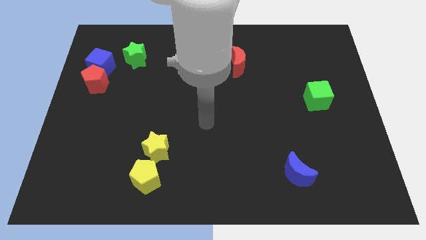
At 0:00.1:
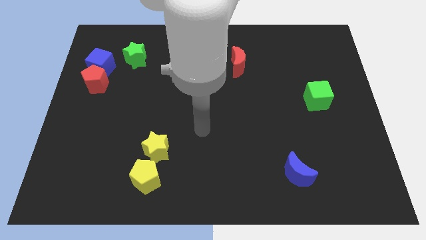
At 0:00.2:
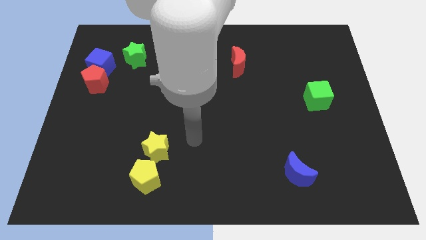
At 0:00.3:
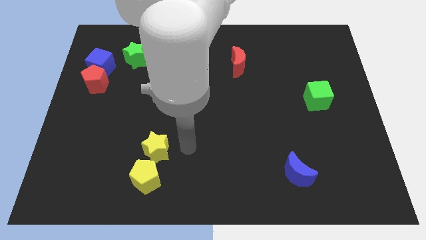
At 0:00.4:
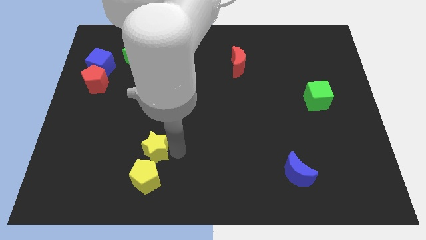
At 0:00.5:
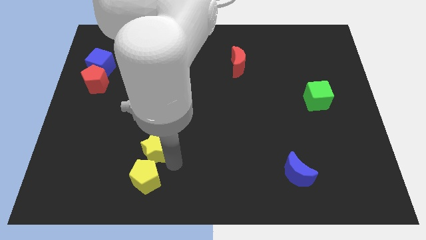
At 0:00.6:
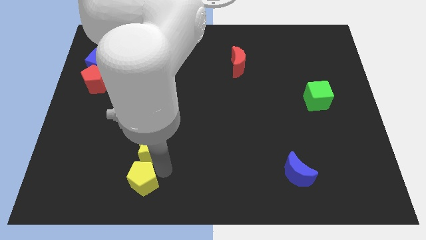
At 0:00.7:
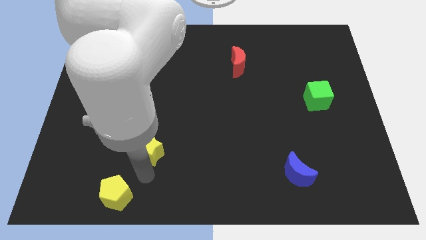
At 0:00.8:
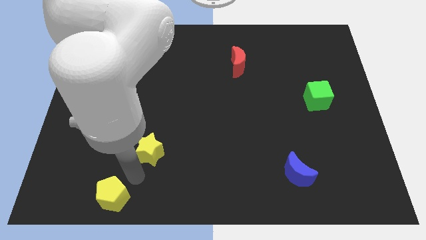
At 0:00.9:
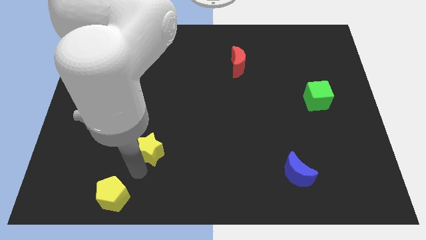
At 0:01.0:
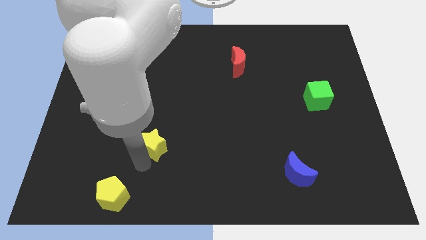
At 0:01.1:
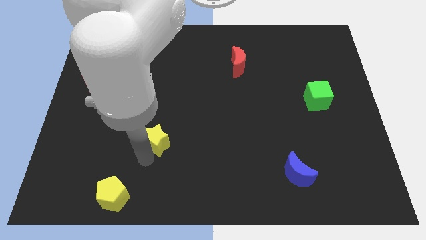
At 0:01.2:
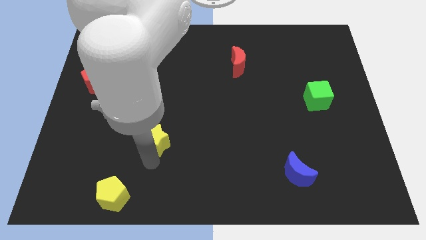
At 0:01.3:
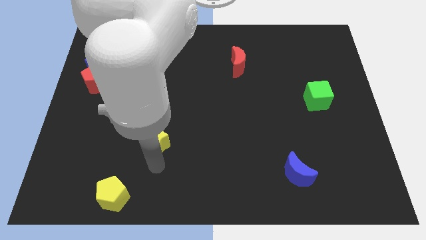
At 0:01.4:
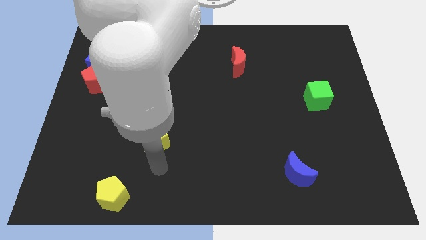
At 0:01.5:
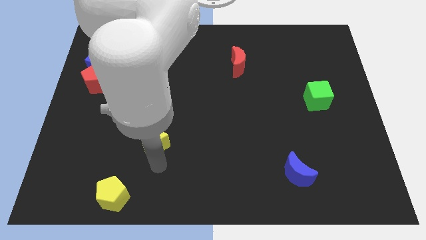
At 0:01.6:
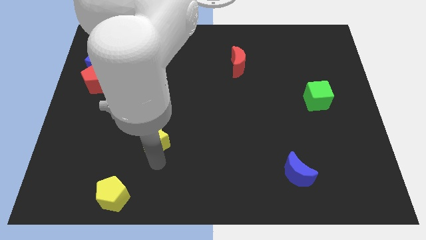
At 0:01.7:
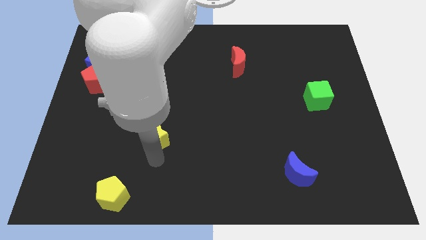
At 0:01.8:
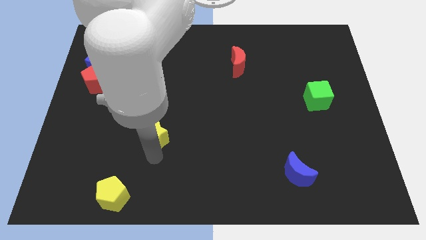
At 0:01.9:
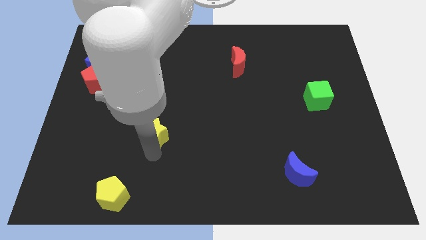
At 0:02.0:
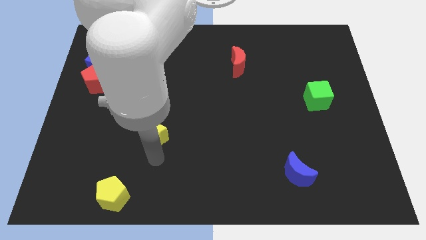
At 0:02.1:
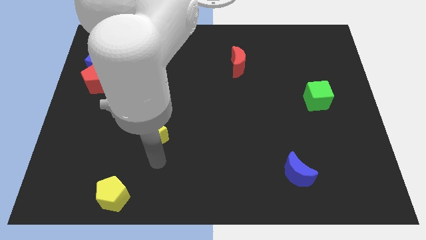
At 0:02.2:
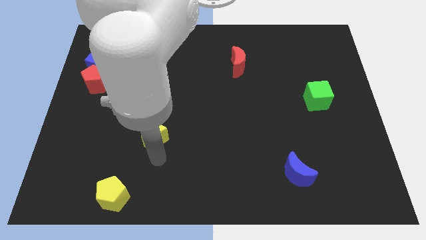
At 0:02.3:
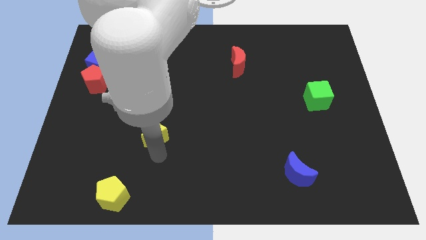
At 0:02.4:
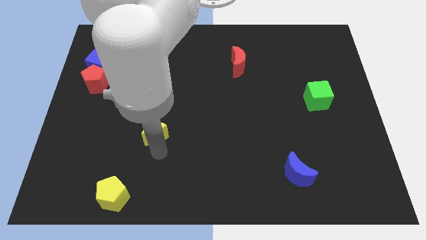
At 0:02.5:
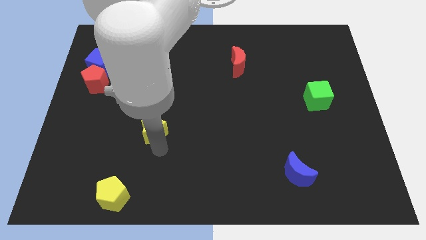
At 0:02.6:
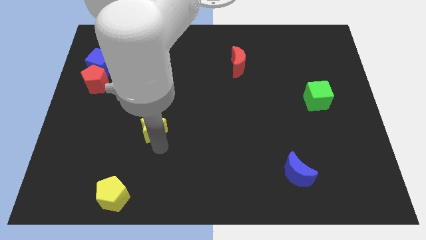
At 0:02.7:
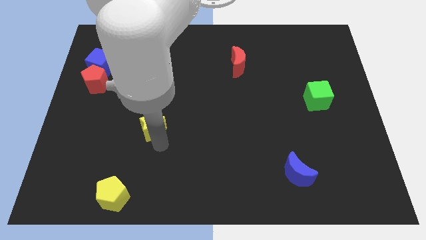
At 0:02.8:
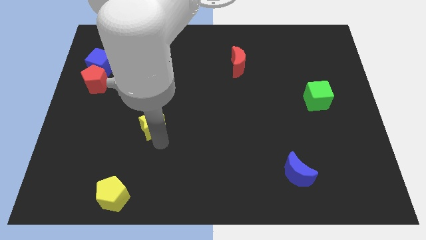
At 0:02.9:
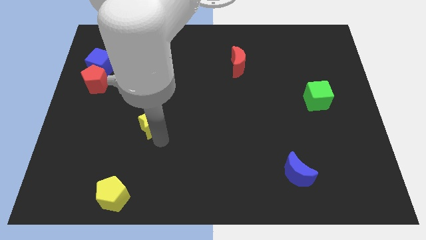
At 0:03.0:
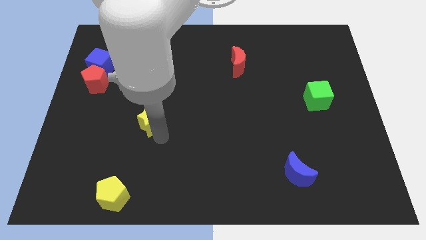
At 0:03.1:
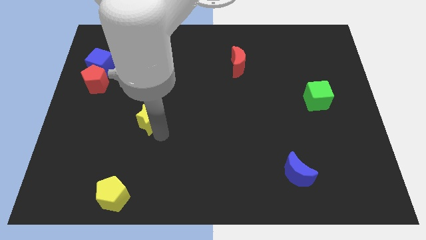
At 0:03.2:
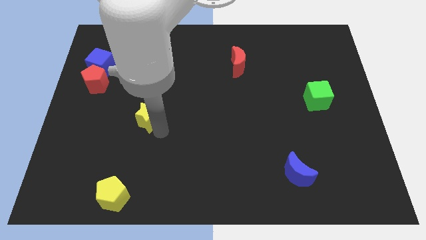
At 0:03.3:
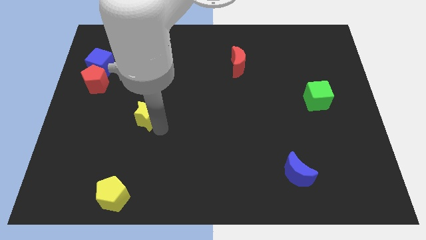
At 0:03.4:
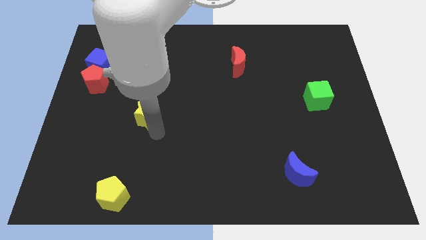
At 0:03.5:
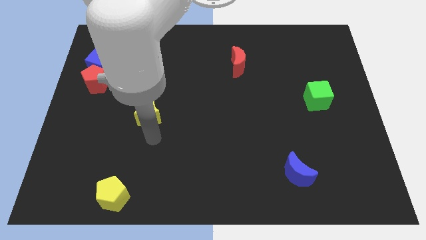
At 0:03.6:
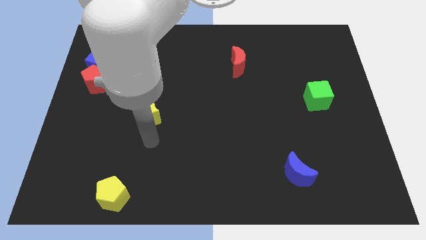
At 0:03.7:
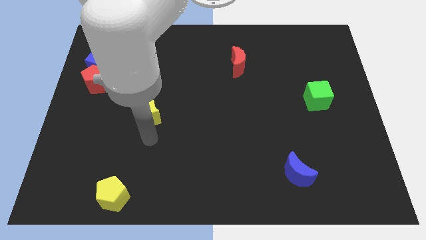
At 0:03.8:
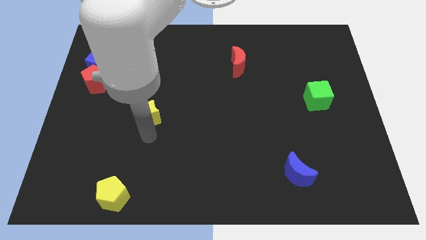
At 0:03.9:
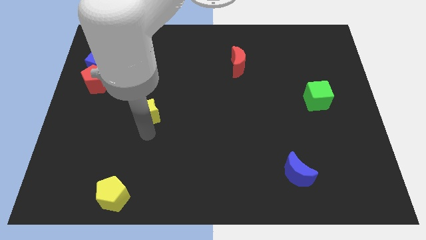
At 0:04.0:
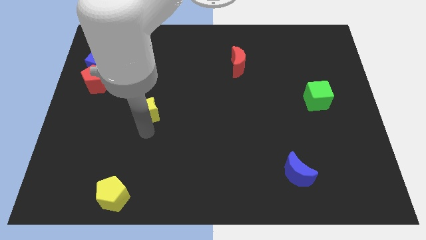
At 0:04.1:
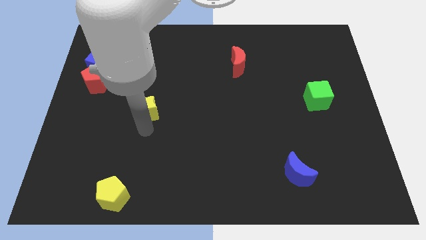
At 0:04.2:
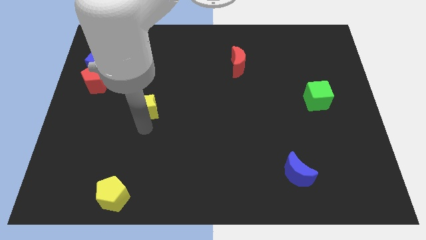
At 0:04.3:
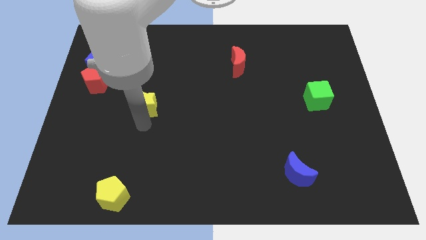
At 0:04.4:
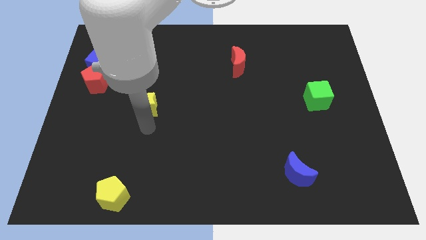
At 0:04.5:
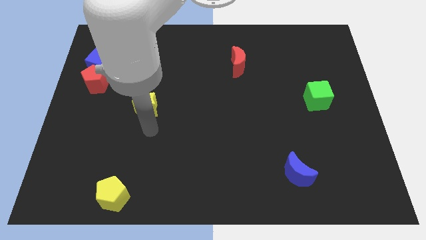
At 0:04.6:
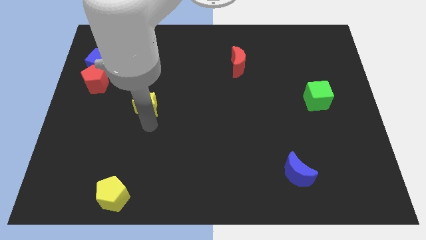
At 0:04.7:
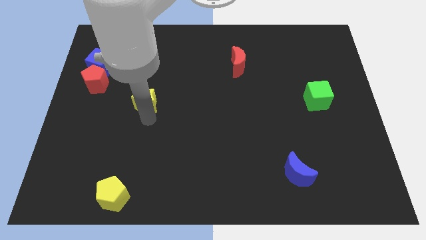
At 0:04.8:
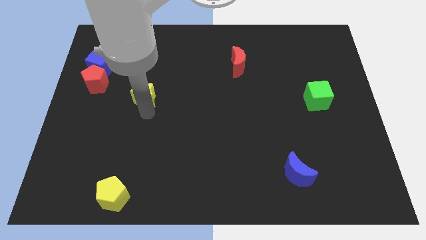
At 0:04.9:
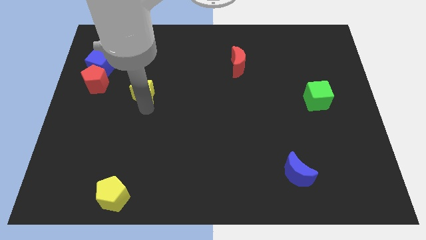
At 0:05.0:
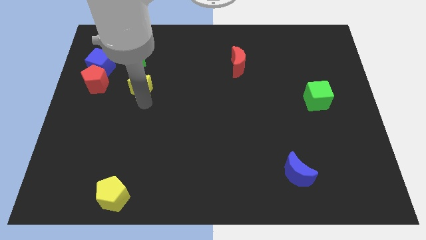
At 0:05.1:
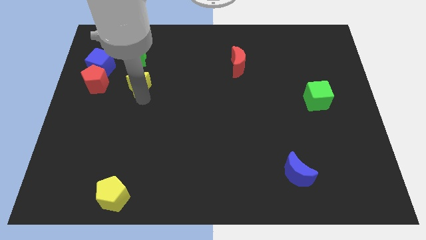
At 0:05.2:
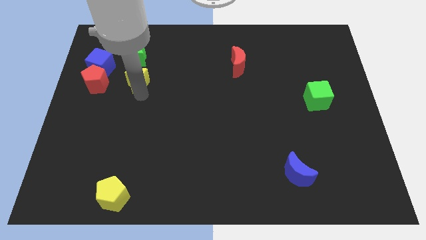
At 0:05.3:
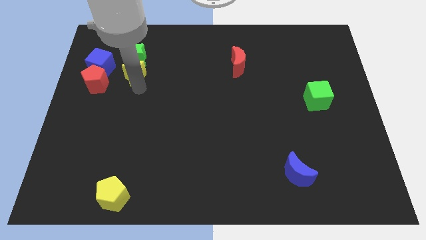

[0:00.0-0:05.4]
slide the yellow star to the green star

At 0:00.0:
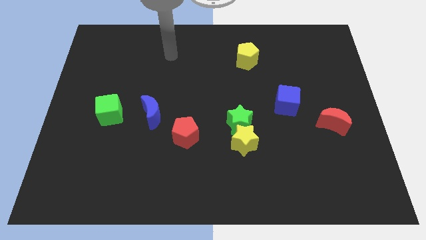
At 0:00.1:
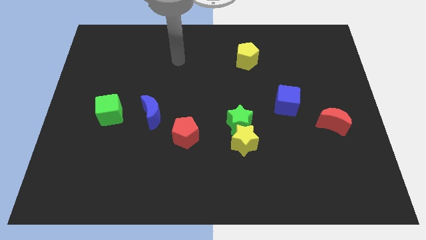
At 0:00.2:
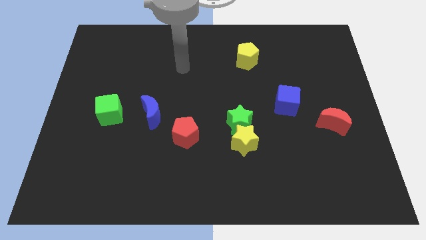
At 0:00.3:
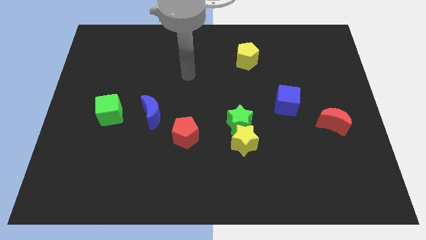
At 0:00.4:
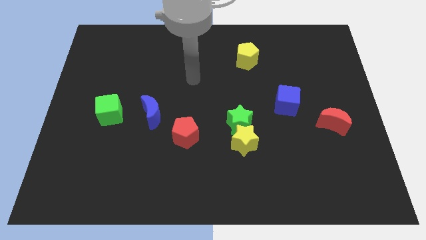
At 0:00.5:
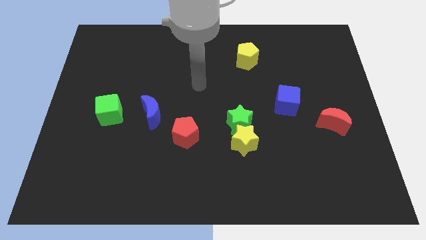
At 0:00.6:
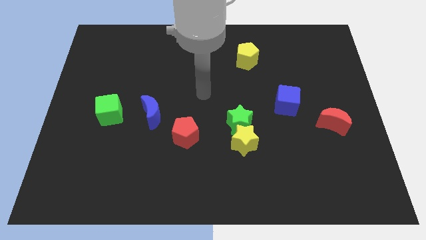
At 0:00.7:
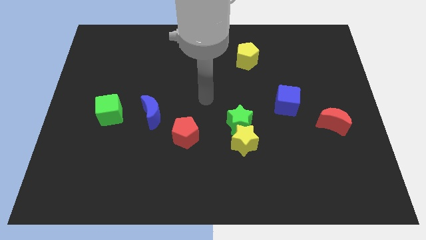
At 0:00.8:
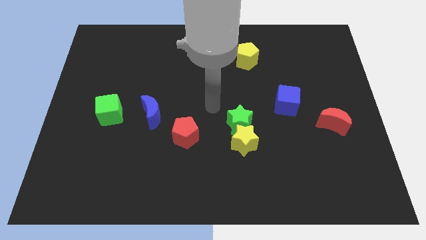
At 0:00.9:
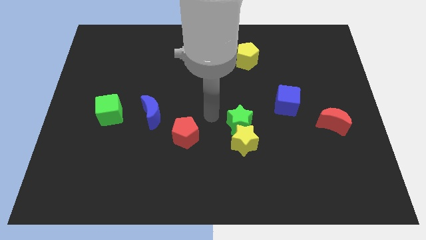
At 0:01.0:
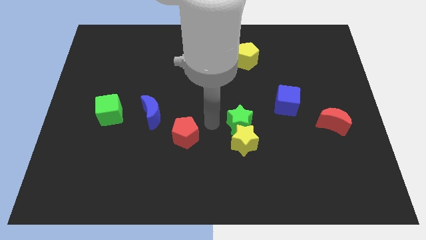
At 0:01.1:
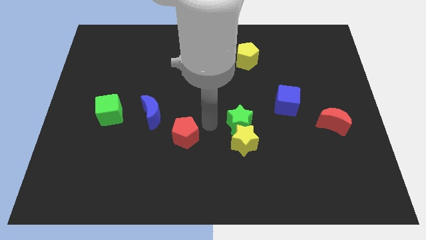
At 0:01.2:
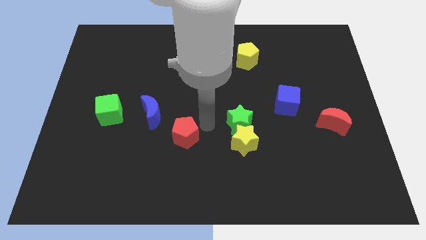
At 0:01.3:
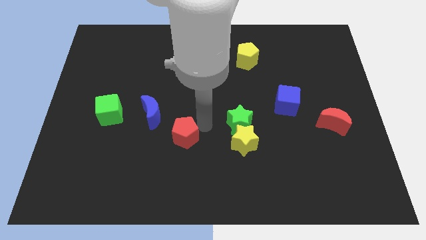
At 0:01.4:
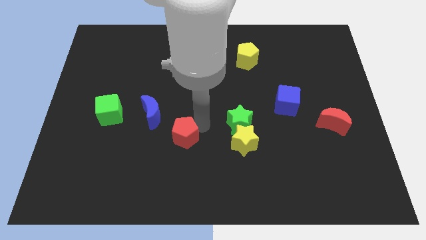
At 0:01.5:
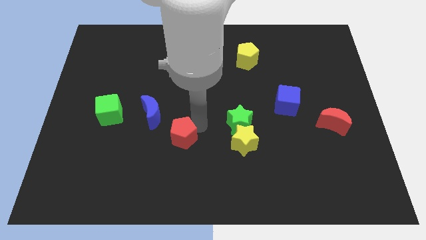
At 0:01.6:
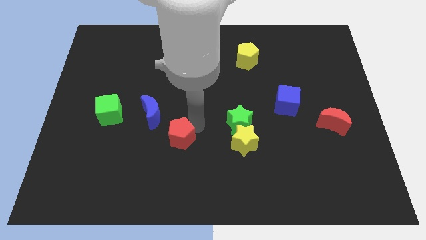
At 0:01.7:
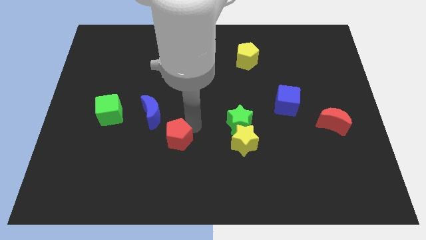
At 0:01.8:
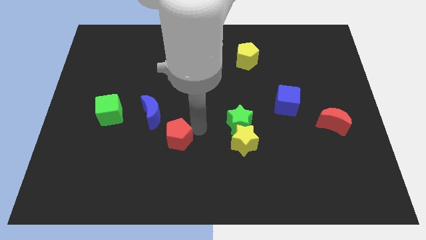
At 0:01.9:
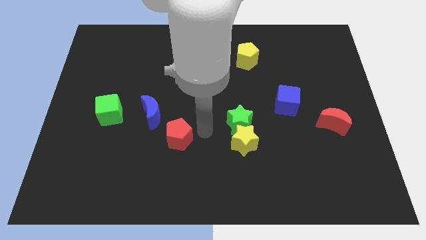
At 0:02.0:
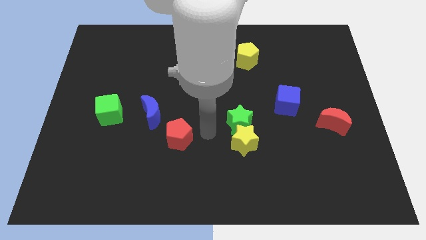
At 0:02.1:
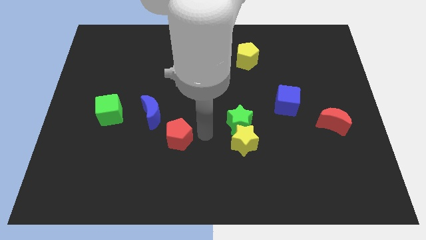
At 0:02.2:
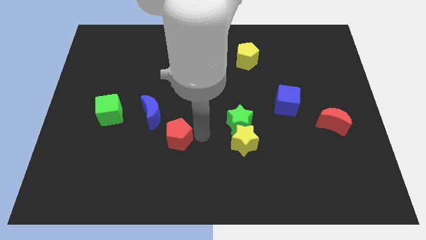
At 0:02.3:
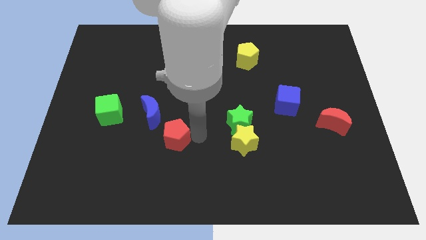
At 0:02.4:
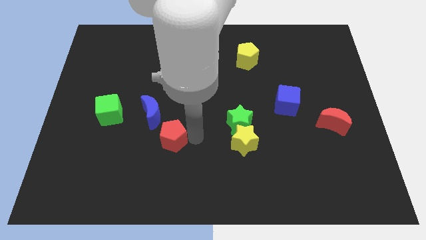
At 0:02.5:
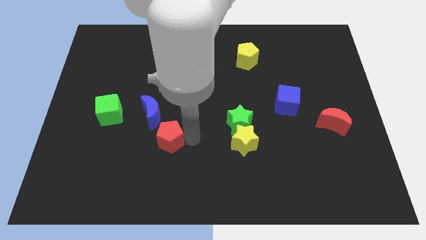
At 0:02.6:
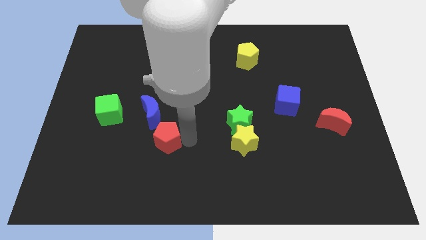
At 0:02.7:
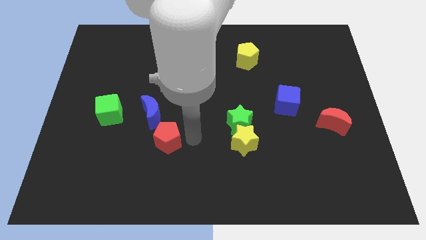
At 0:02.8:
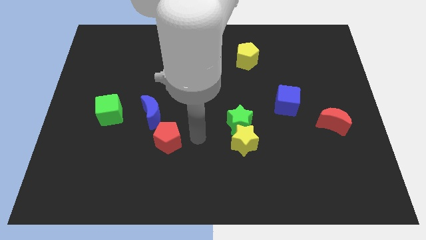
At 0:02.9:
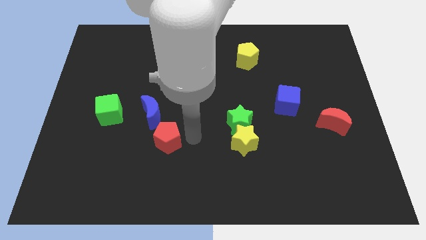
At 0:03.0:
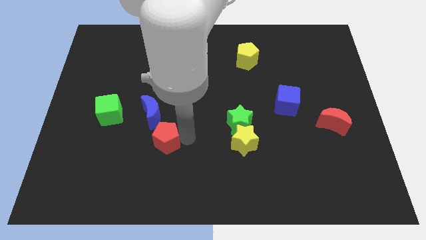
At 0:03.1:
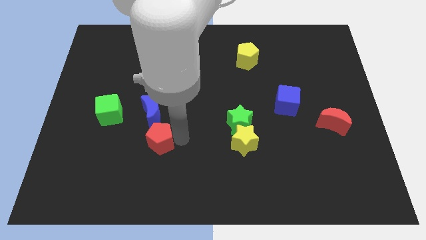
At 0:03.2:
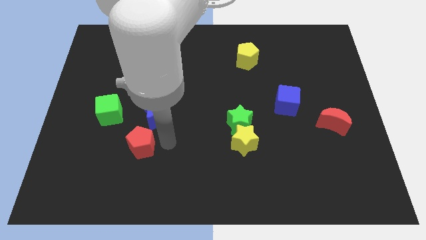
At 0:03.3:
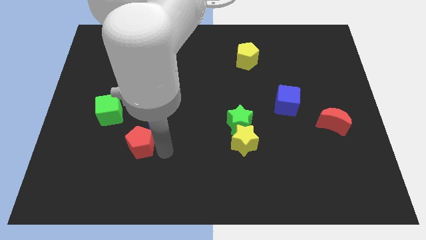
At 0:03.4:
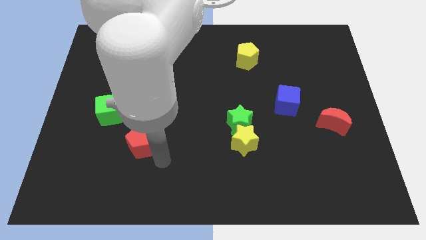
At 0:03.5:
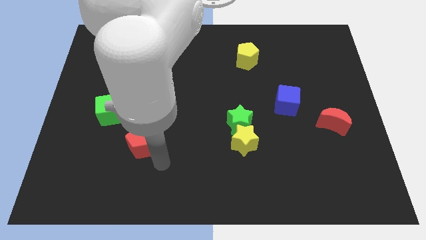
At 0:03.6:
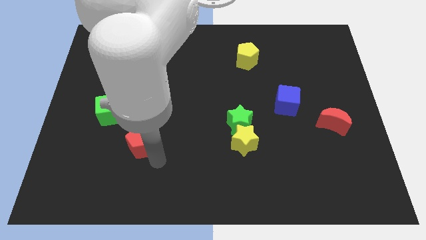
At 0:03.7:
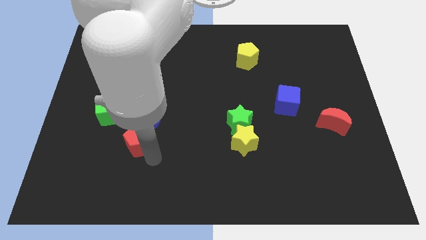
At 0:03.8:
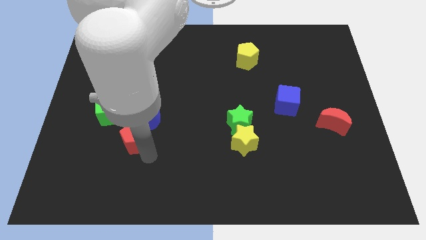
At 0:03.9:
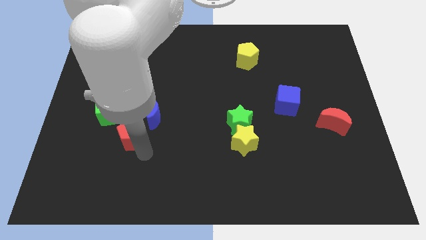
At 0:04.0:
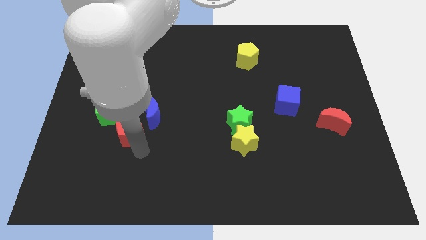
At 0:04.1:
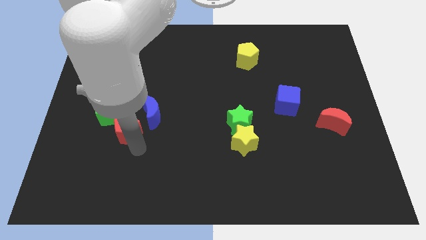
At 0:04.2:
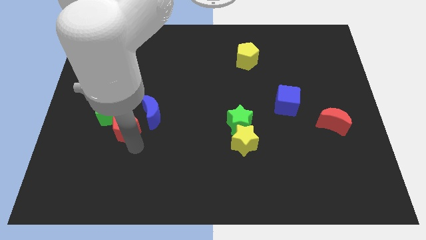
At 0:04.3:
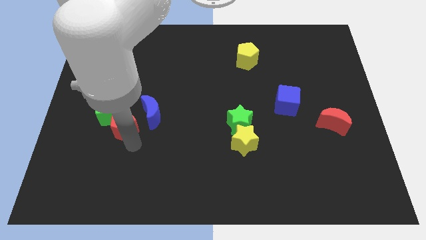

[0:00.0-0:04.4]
move the red pentagon next to the green cube
